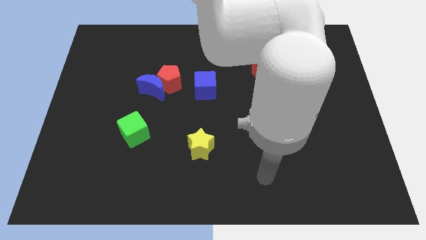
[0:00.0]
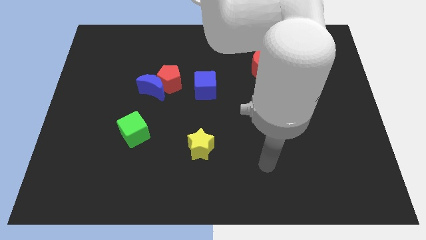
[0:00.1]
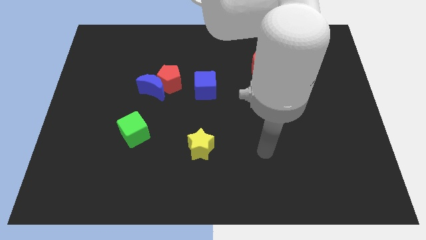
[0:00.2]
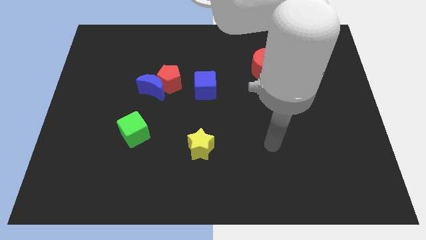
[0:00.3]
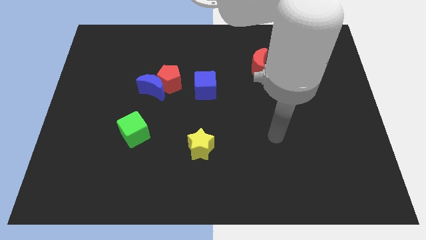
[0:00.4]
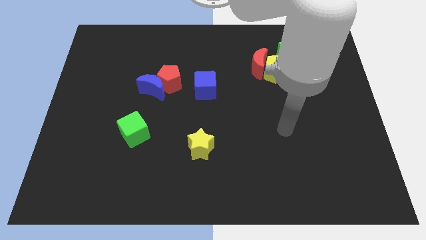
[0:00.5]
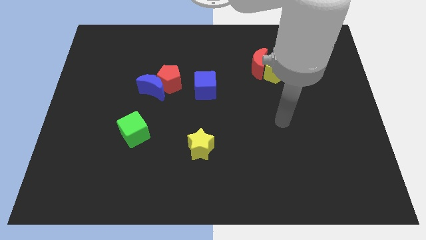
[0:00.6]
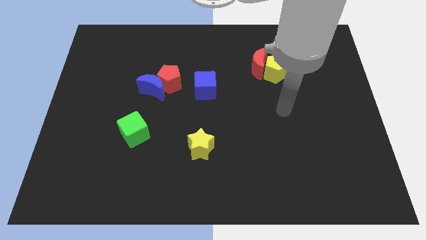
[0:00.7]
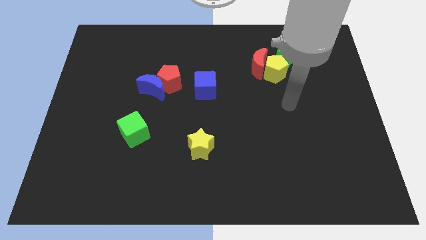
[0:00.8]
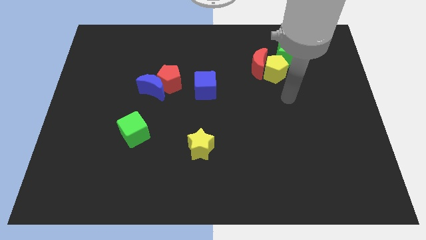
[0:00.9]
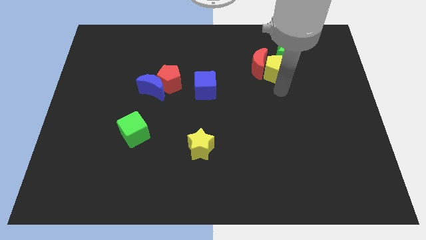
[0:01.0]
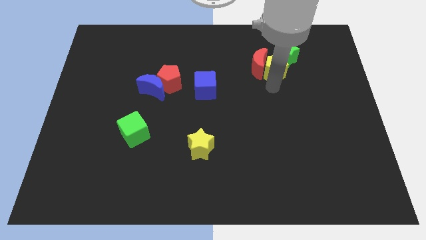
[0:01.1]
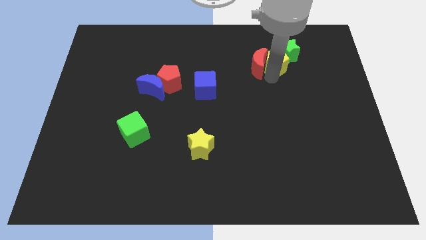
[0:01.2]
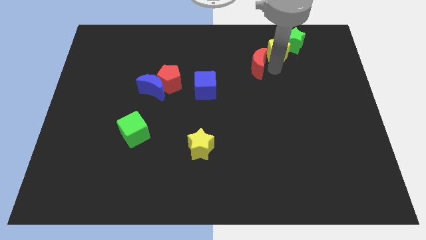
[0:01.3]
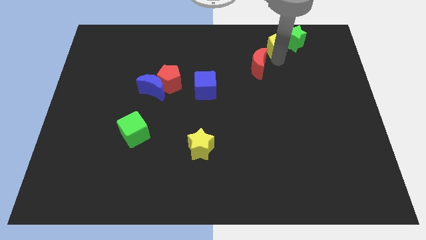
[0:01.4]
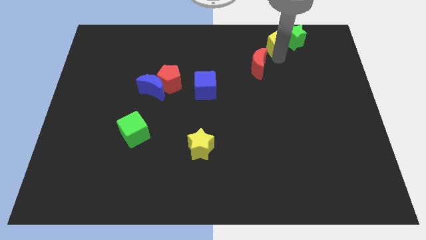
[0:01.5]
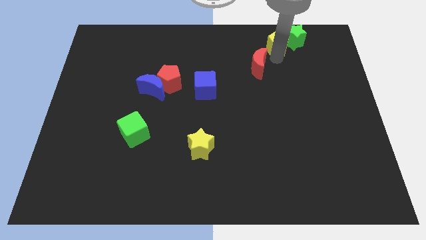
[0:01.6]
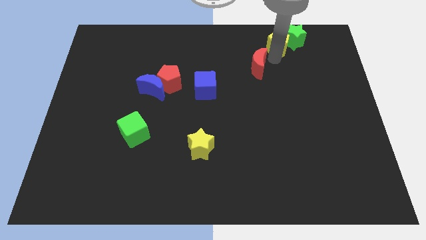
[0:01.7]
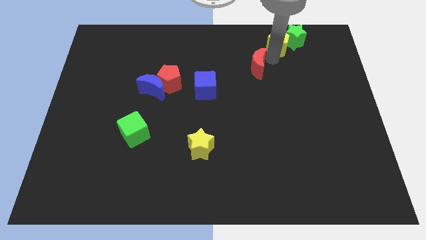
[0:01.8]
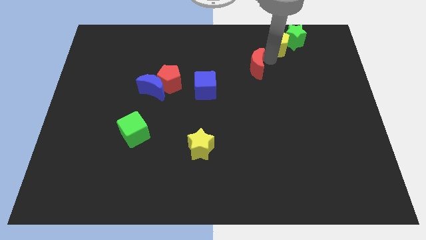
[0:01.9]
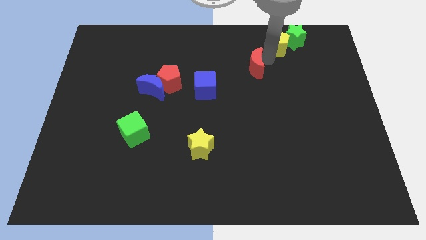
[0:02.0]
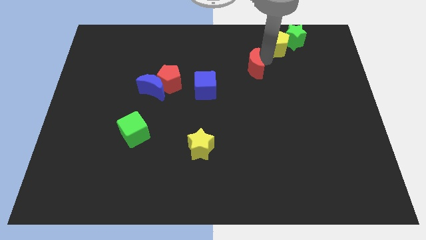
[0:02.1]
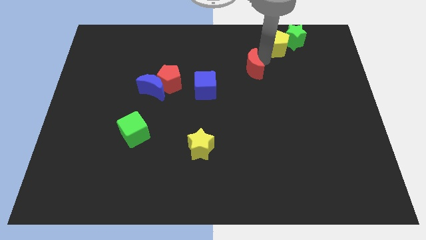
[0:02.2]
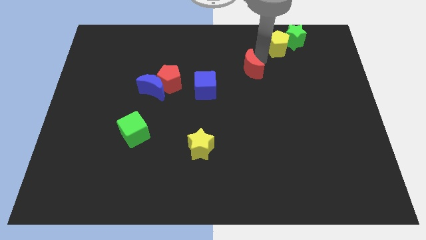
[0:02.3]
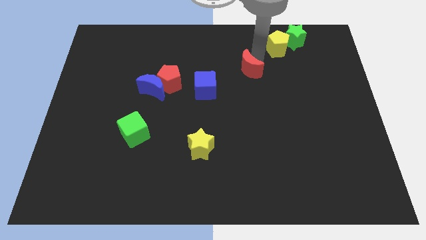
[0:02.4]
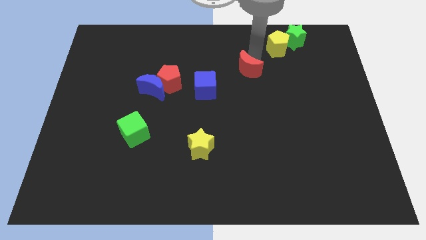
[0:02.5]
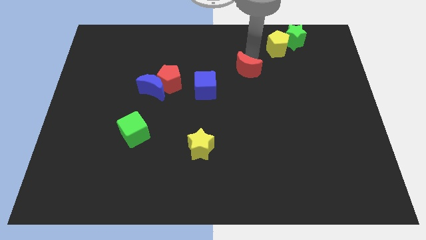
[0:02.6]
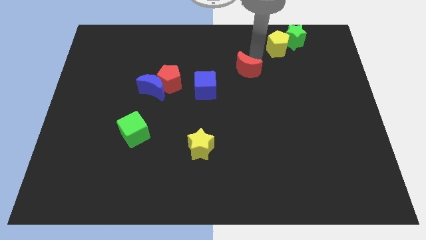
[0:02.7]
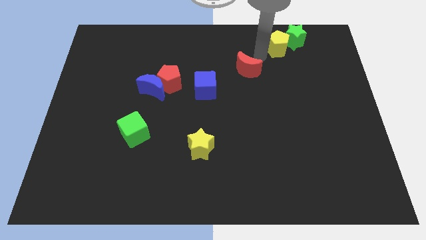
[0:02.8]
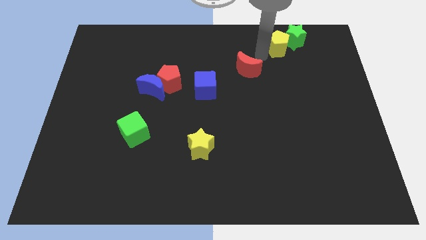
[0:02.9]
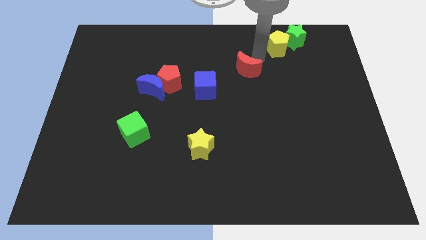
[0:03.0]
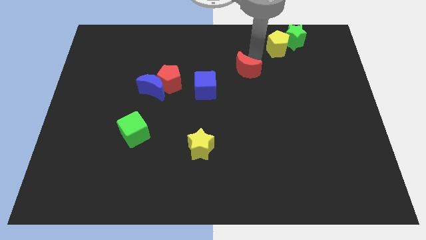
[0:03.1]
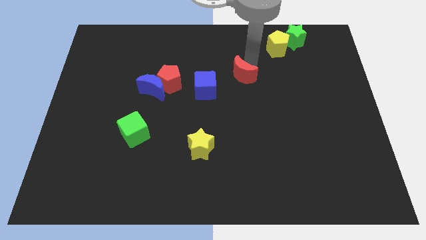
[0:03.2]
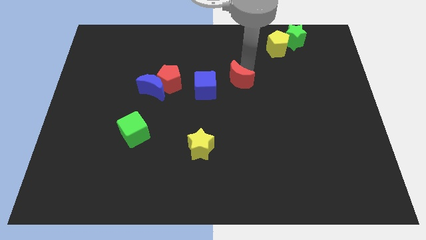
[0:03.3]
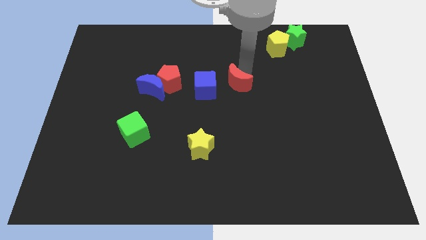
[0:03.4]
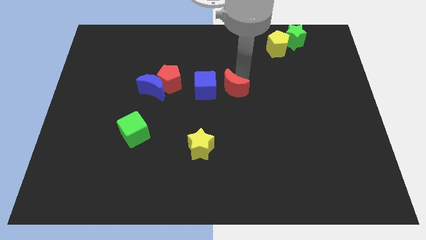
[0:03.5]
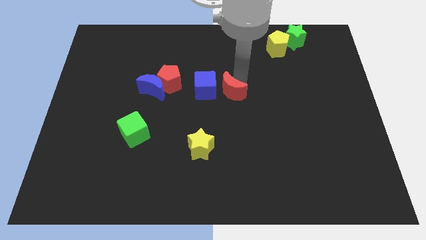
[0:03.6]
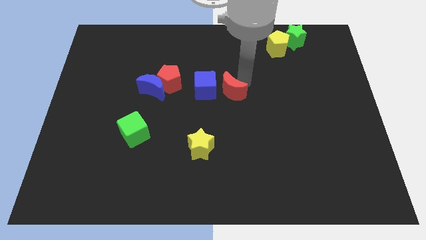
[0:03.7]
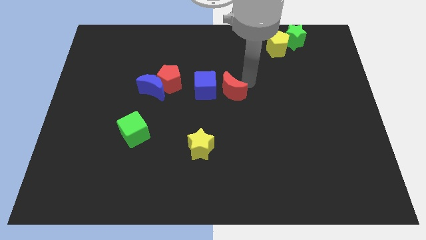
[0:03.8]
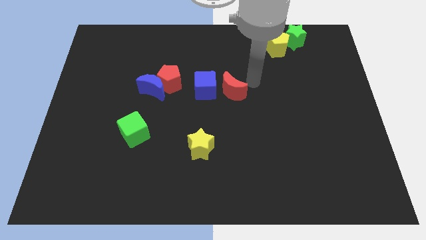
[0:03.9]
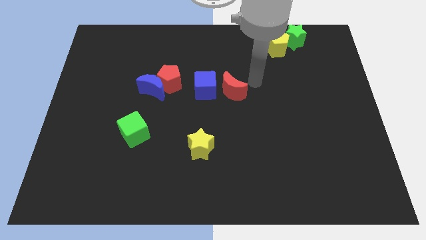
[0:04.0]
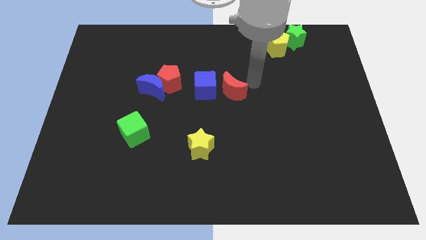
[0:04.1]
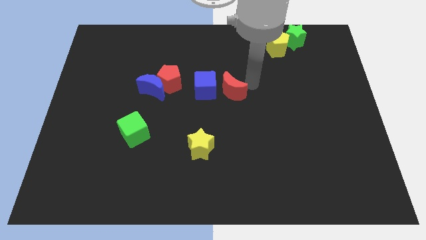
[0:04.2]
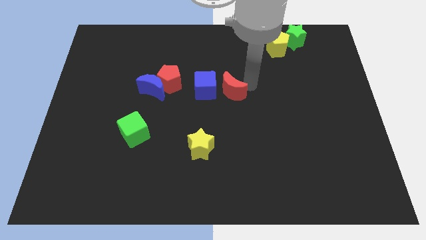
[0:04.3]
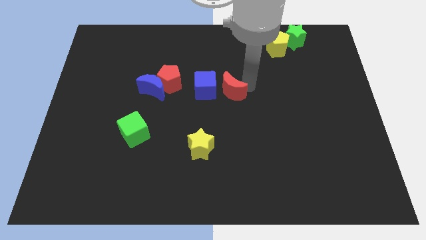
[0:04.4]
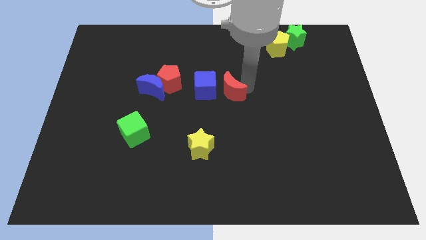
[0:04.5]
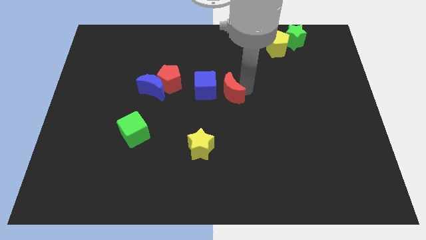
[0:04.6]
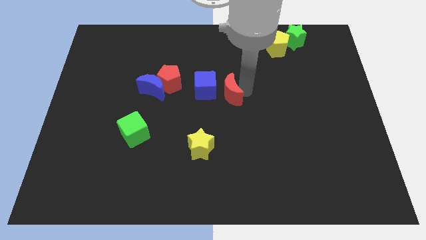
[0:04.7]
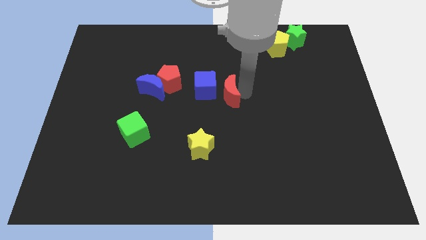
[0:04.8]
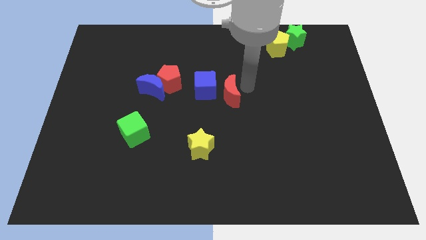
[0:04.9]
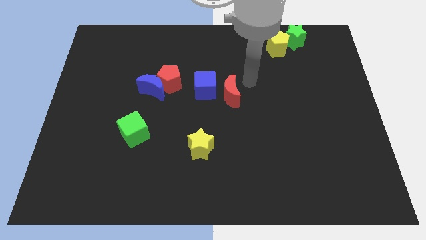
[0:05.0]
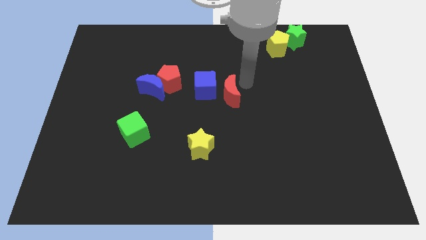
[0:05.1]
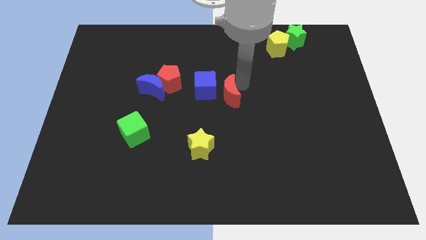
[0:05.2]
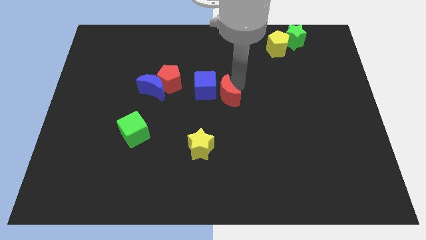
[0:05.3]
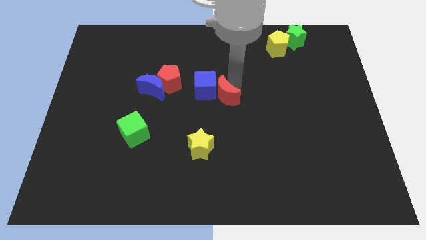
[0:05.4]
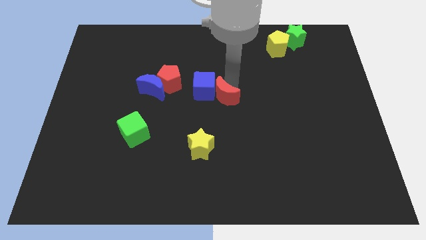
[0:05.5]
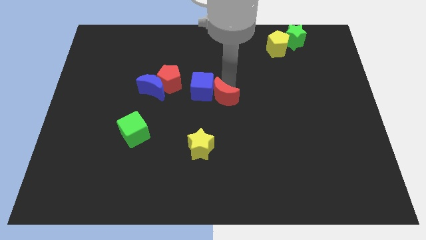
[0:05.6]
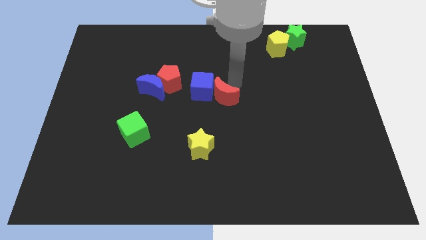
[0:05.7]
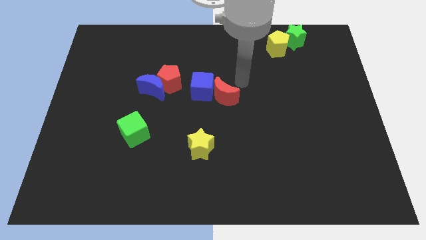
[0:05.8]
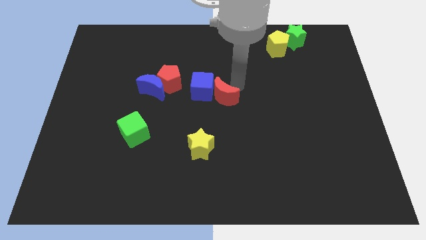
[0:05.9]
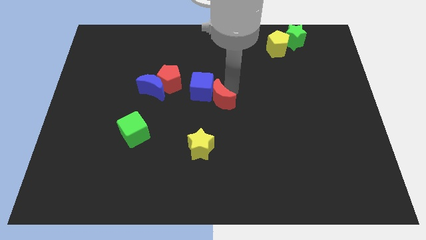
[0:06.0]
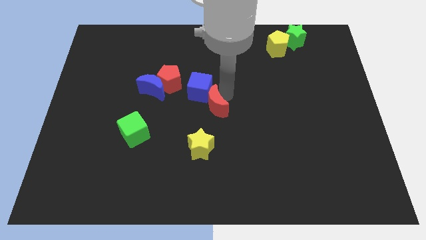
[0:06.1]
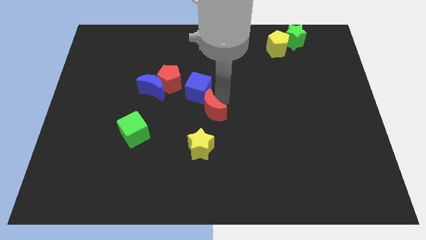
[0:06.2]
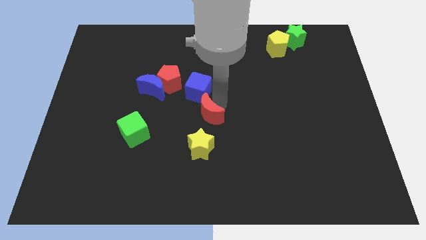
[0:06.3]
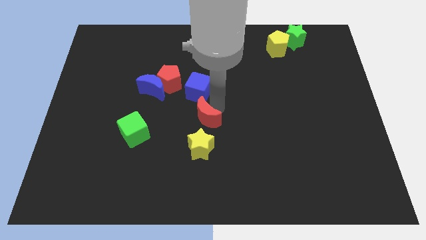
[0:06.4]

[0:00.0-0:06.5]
slide the red moon downwards and to the left diagonally

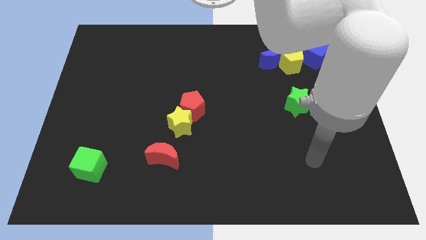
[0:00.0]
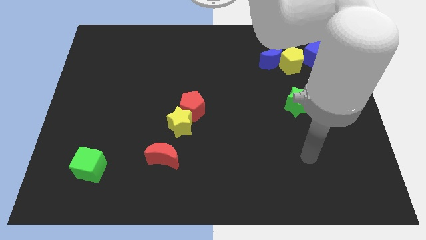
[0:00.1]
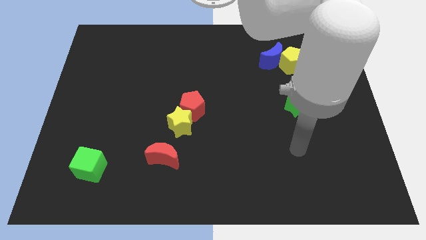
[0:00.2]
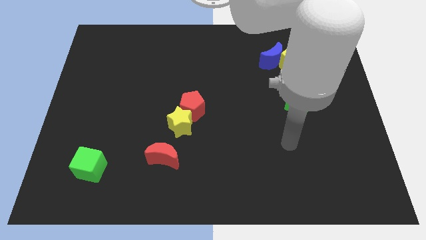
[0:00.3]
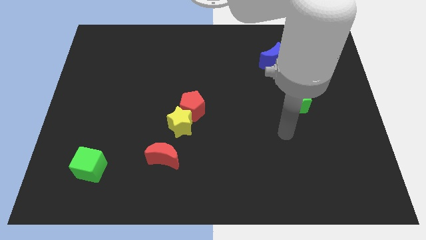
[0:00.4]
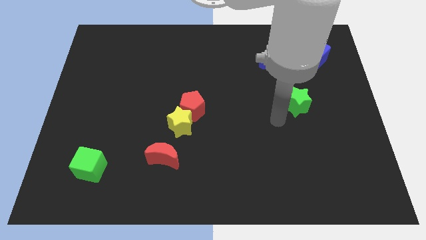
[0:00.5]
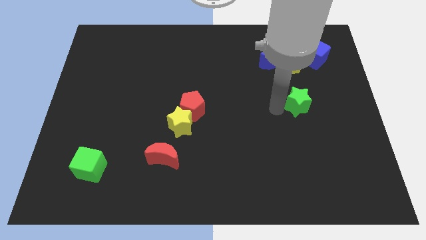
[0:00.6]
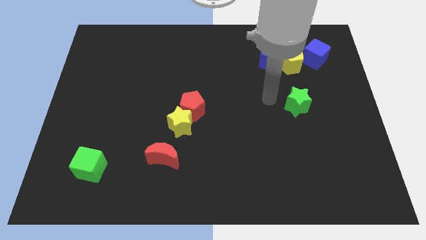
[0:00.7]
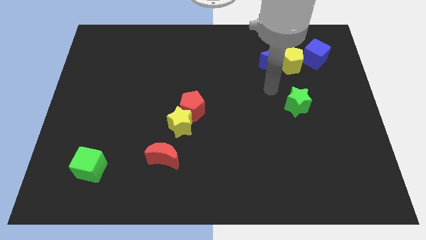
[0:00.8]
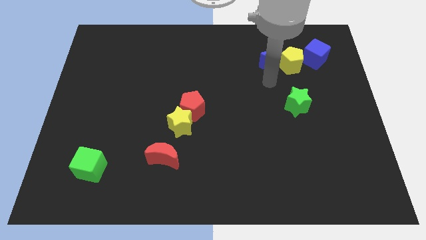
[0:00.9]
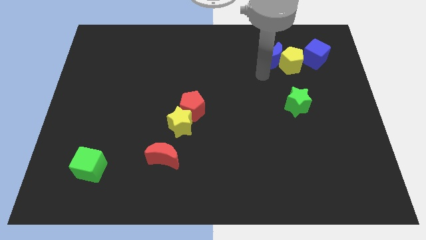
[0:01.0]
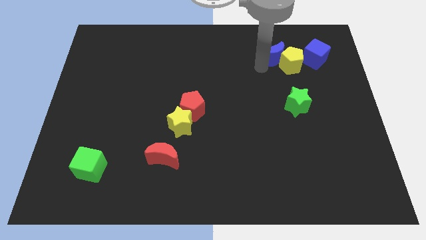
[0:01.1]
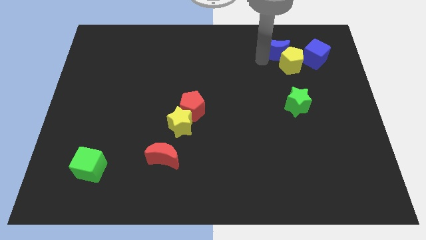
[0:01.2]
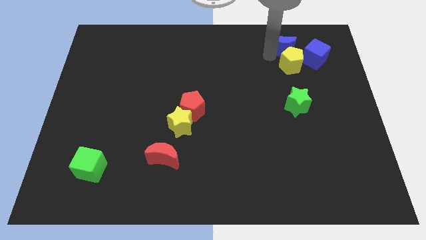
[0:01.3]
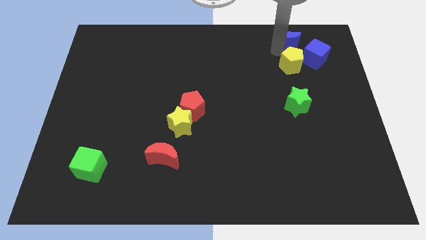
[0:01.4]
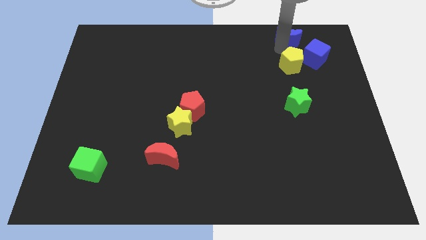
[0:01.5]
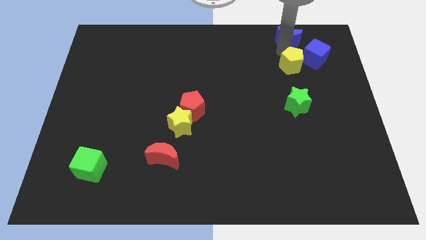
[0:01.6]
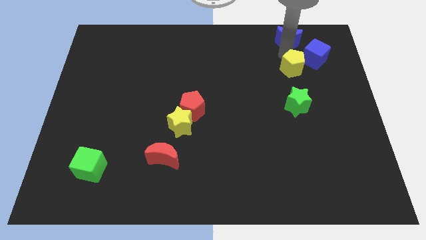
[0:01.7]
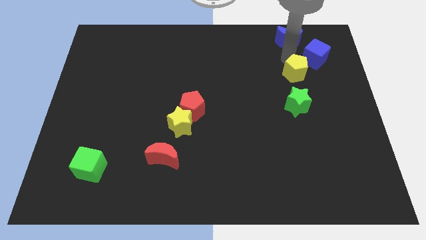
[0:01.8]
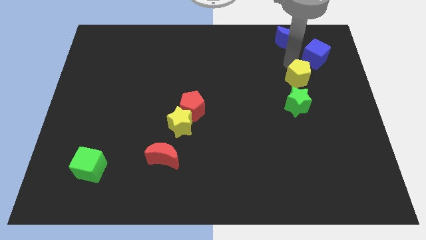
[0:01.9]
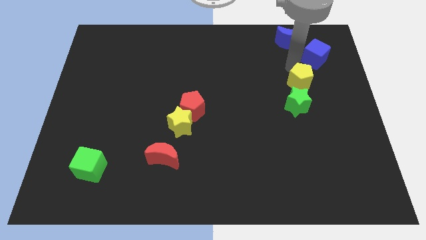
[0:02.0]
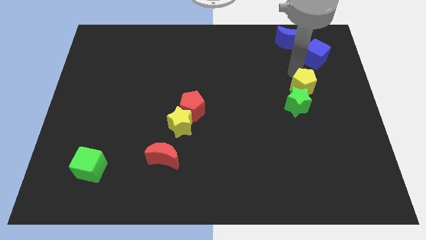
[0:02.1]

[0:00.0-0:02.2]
push the yellow pentagon somewhat downwards
